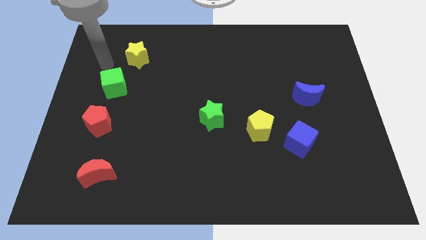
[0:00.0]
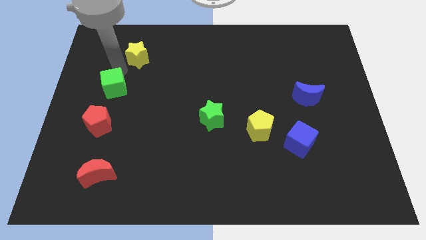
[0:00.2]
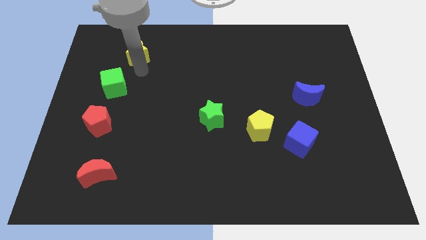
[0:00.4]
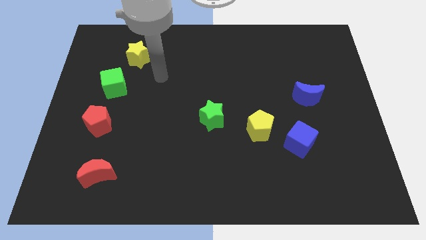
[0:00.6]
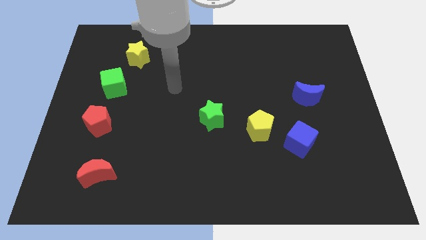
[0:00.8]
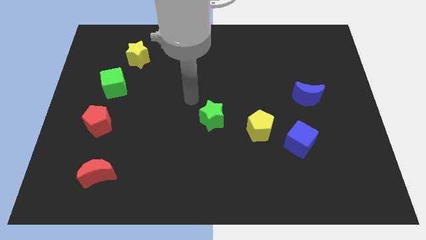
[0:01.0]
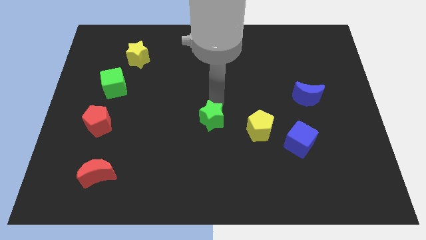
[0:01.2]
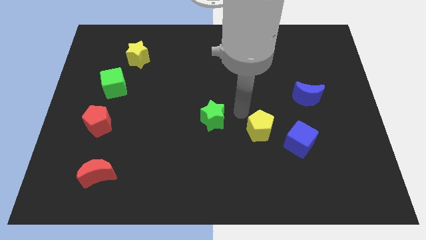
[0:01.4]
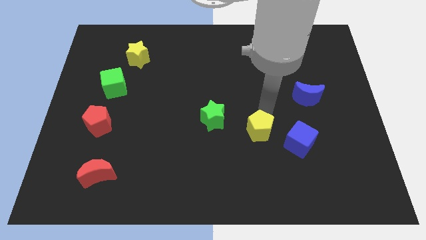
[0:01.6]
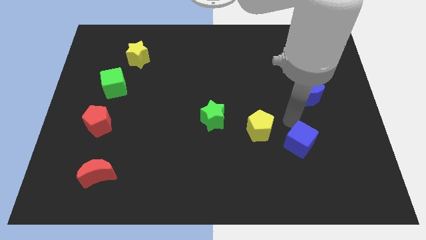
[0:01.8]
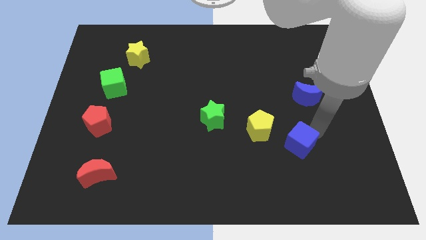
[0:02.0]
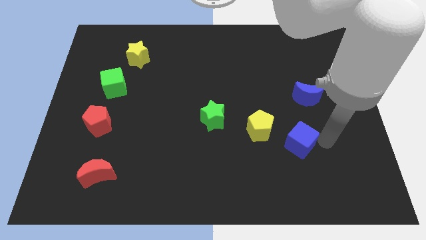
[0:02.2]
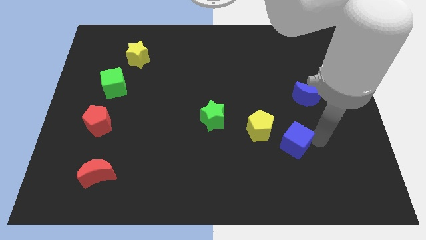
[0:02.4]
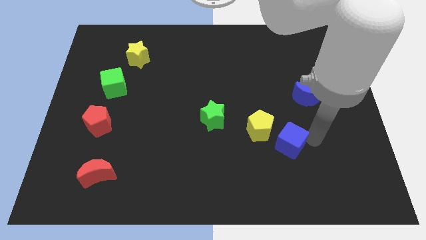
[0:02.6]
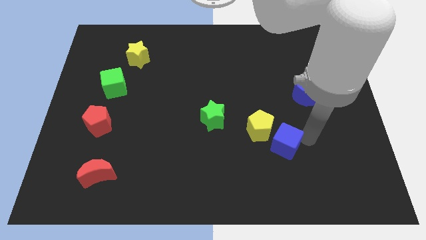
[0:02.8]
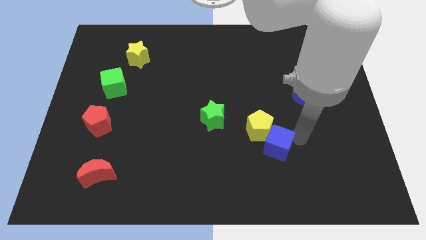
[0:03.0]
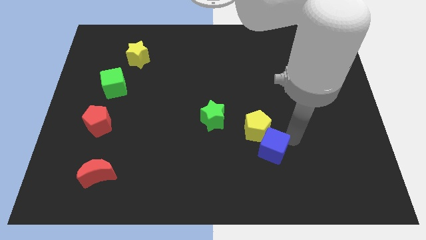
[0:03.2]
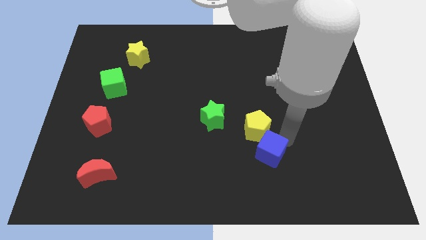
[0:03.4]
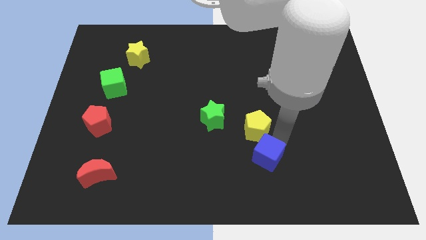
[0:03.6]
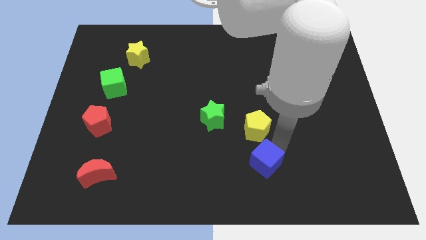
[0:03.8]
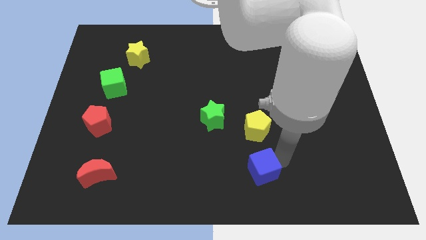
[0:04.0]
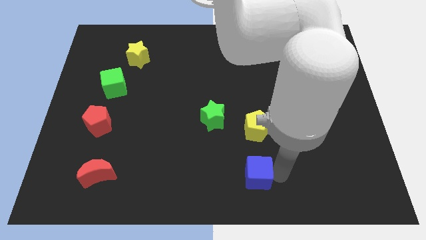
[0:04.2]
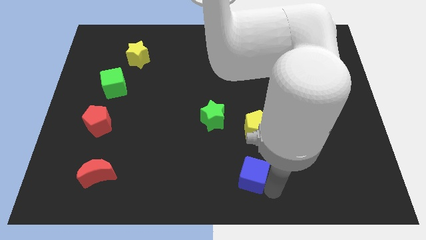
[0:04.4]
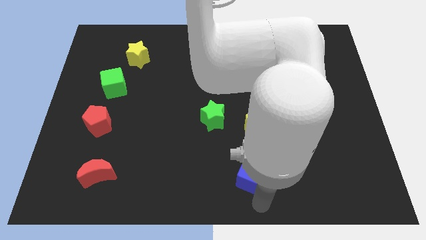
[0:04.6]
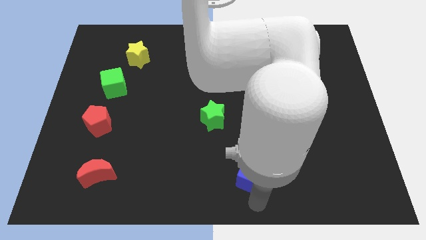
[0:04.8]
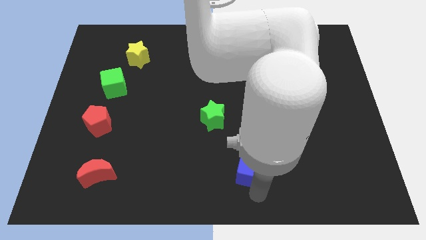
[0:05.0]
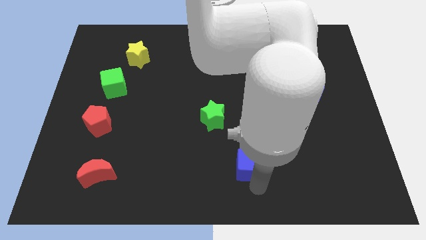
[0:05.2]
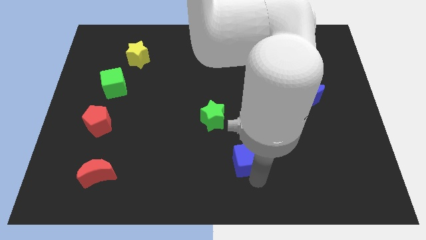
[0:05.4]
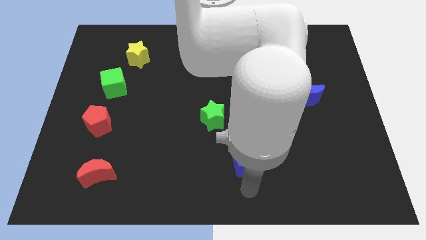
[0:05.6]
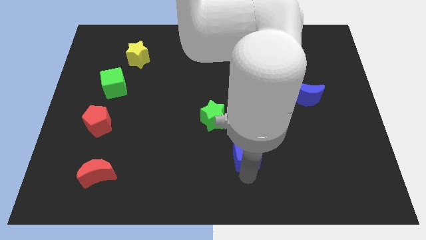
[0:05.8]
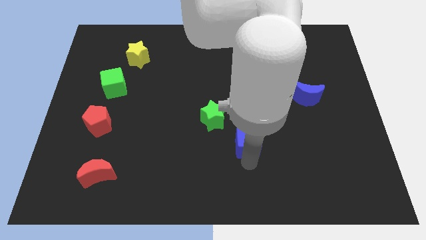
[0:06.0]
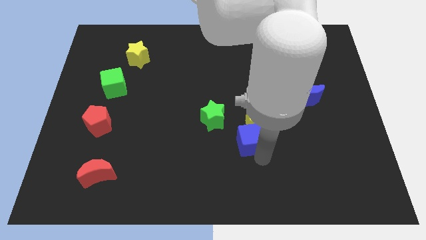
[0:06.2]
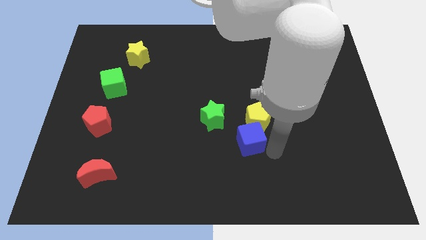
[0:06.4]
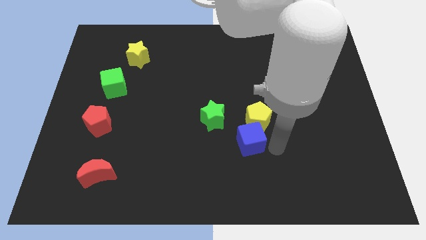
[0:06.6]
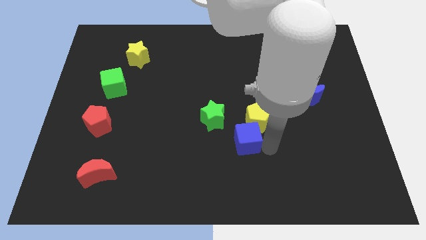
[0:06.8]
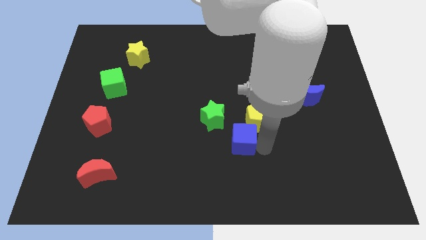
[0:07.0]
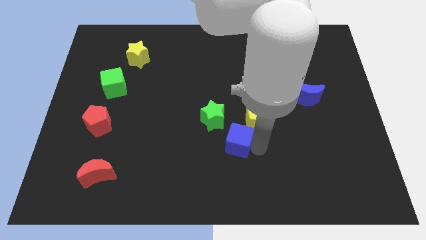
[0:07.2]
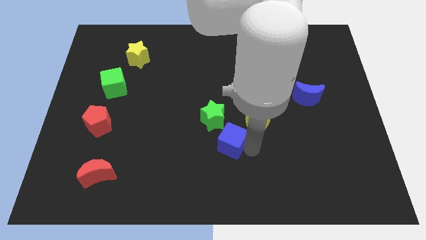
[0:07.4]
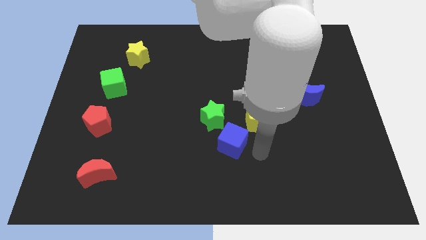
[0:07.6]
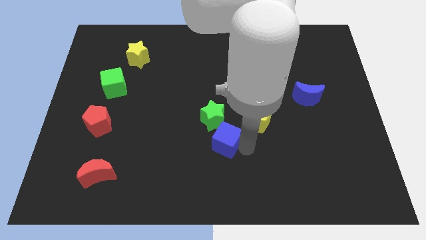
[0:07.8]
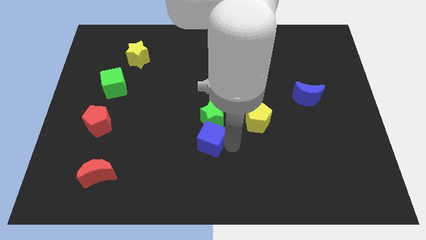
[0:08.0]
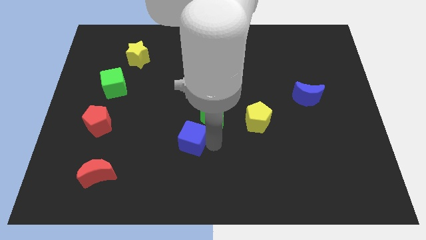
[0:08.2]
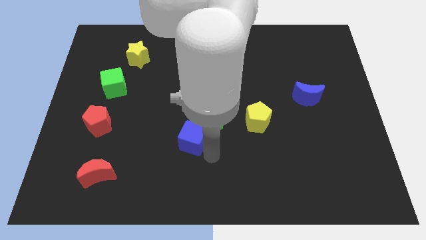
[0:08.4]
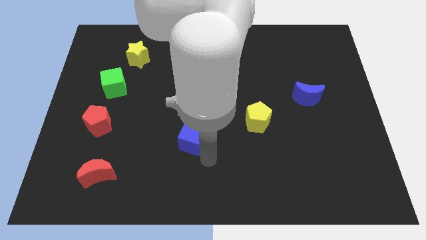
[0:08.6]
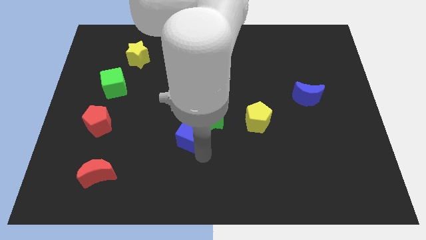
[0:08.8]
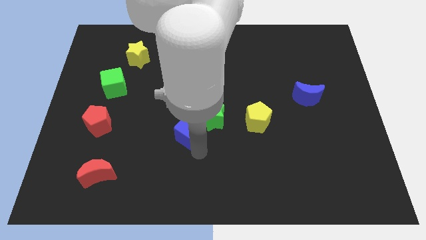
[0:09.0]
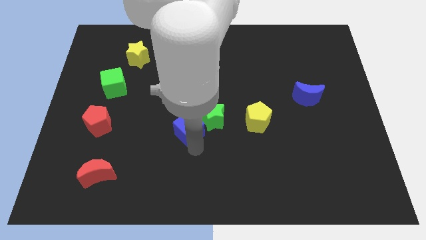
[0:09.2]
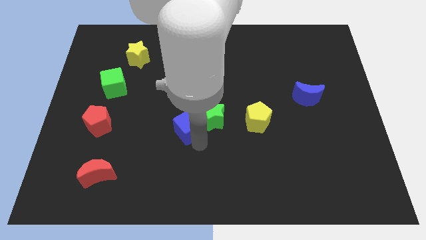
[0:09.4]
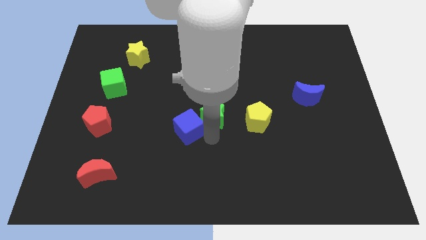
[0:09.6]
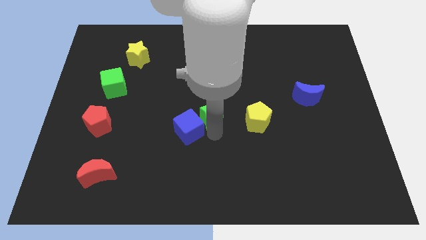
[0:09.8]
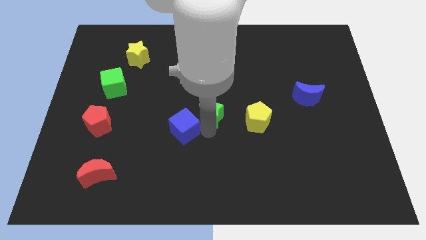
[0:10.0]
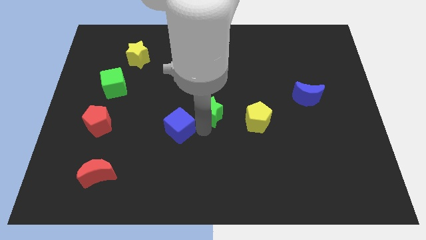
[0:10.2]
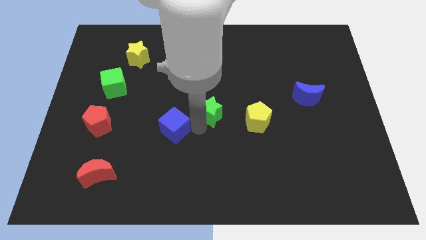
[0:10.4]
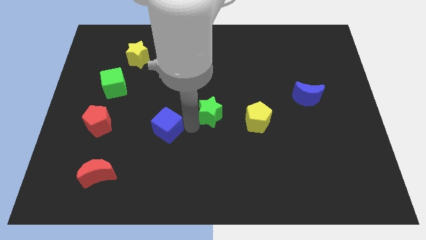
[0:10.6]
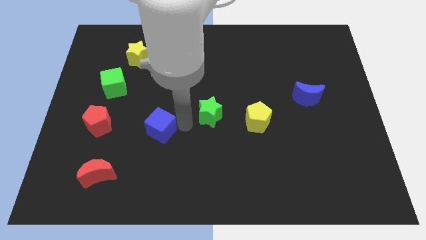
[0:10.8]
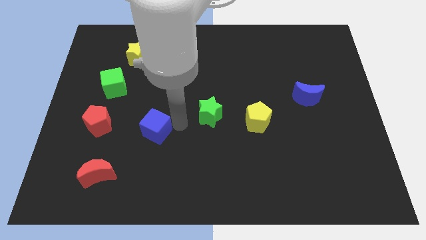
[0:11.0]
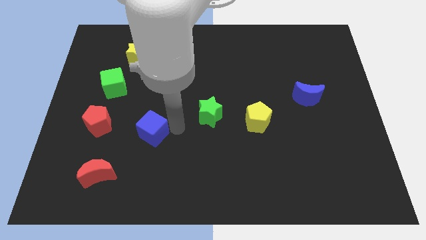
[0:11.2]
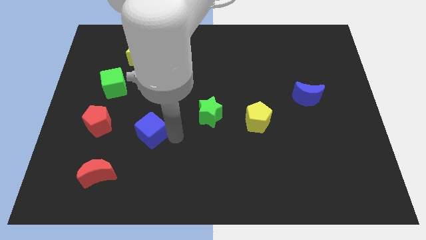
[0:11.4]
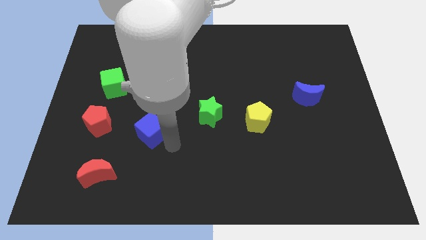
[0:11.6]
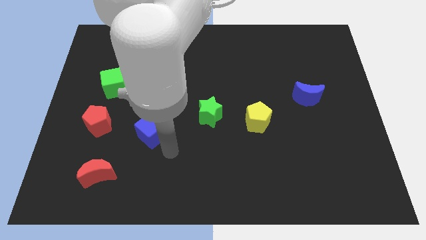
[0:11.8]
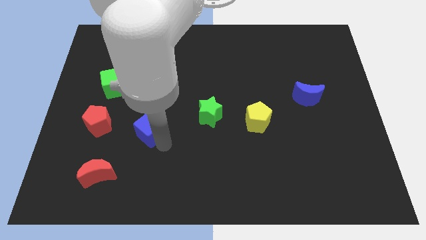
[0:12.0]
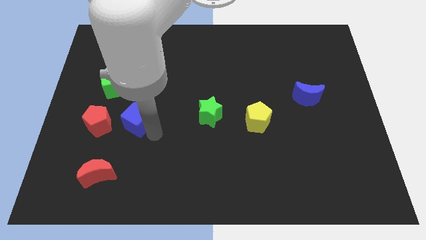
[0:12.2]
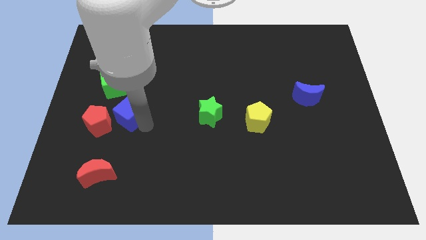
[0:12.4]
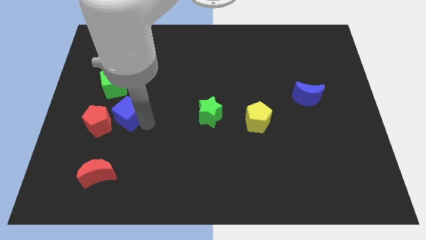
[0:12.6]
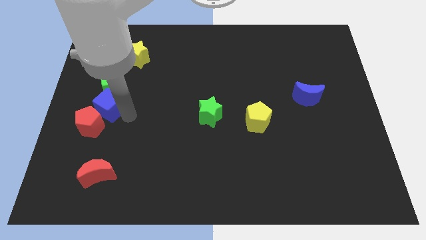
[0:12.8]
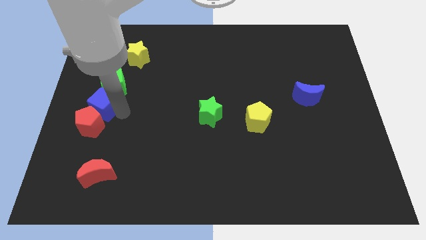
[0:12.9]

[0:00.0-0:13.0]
slide the blue cube to the left side of the board
